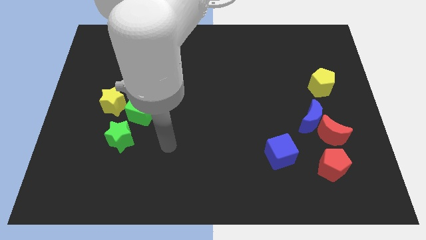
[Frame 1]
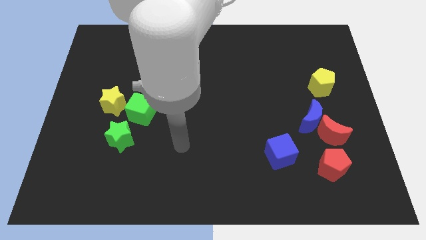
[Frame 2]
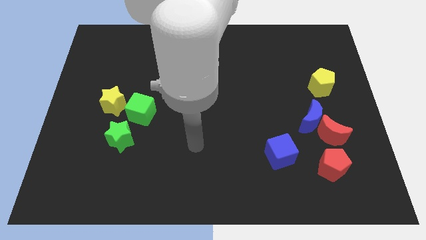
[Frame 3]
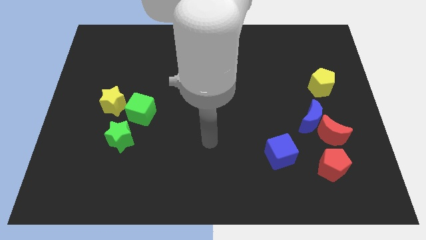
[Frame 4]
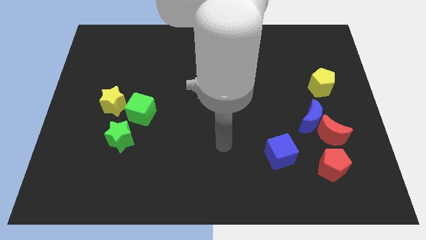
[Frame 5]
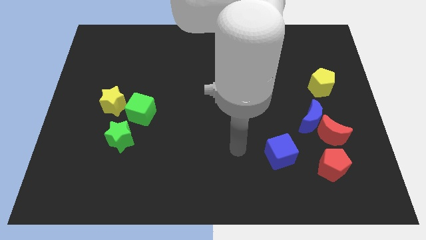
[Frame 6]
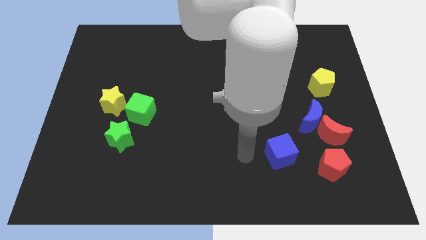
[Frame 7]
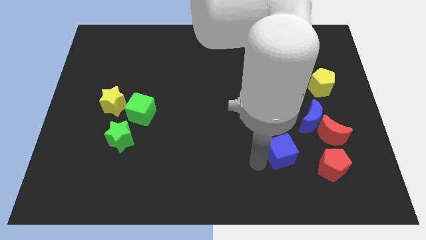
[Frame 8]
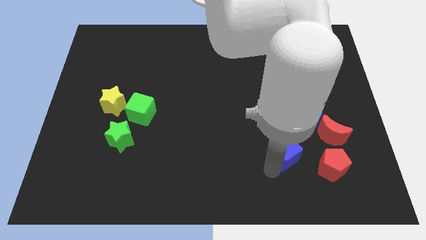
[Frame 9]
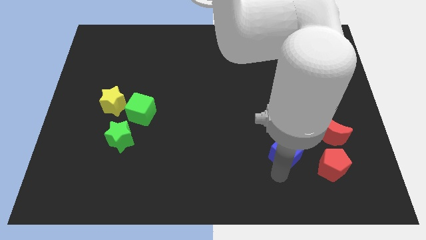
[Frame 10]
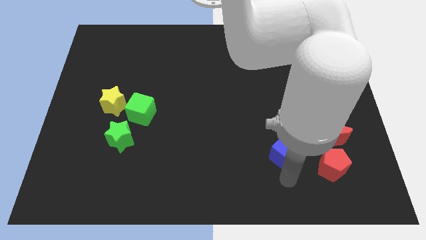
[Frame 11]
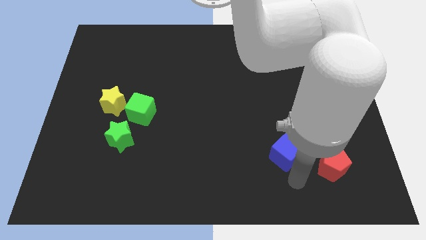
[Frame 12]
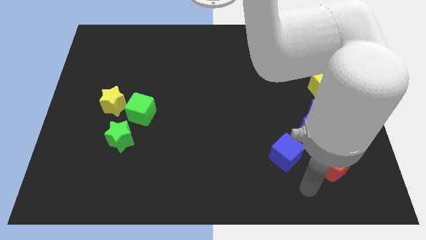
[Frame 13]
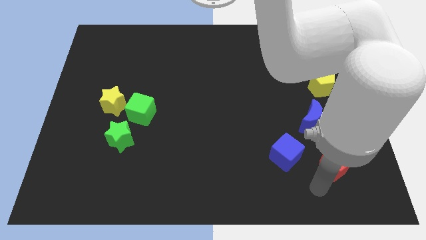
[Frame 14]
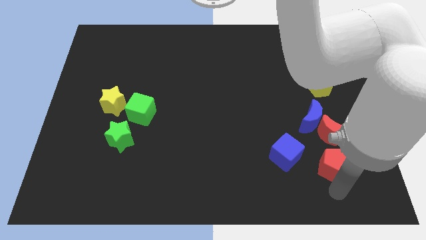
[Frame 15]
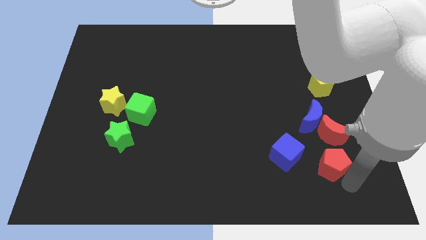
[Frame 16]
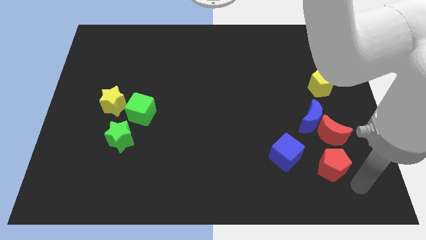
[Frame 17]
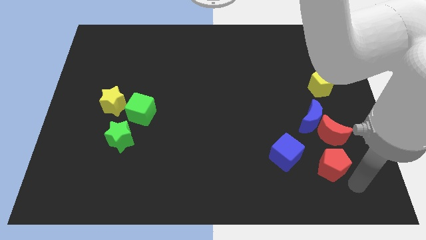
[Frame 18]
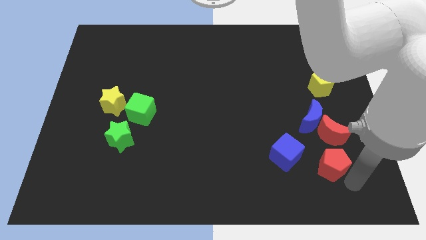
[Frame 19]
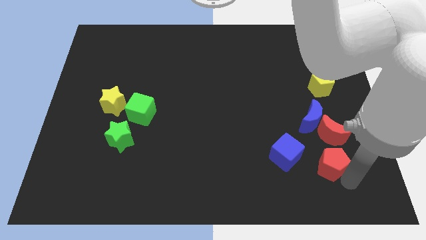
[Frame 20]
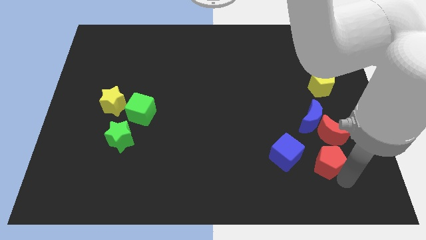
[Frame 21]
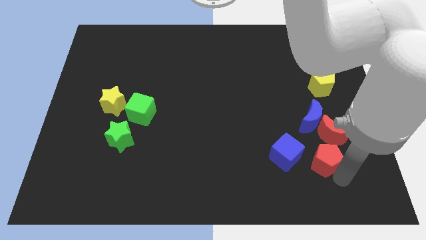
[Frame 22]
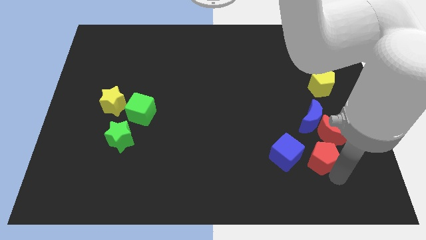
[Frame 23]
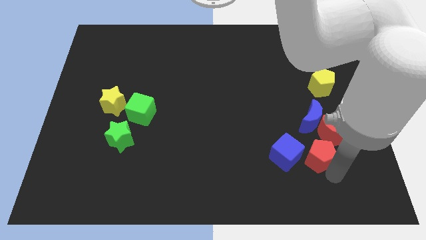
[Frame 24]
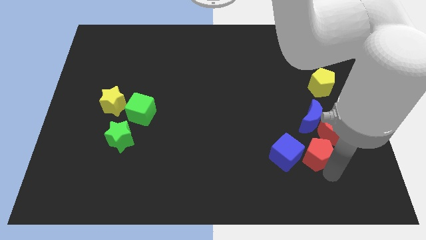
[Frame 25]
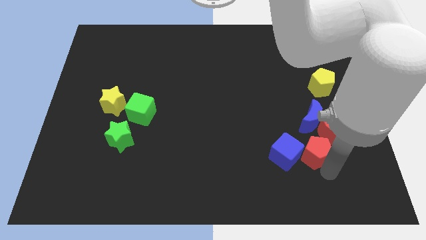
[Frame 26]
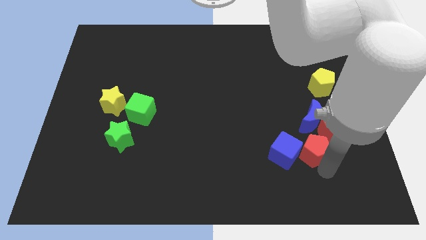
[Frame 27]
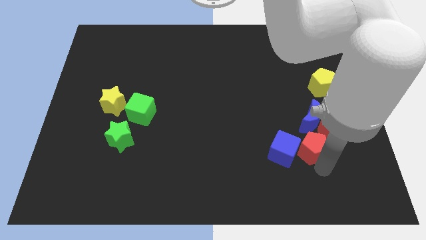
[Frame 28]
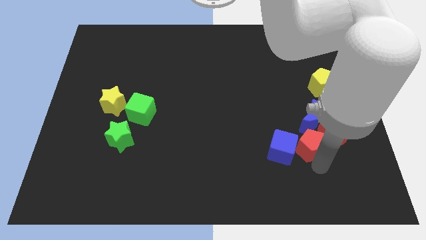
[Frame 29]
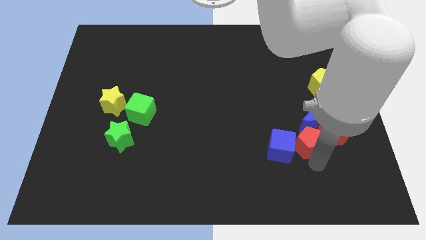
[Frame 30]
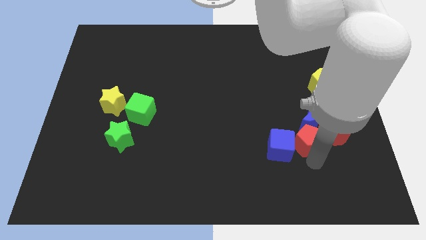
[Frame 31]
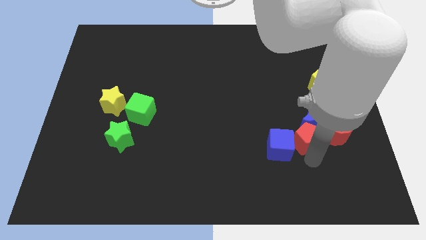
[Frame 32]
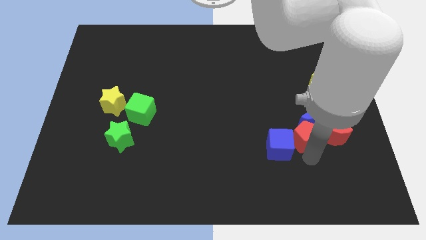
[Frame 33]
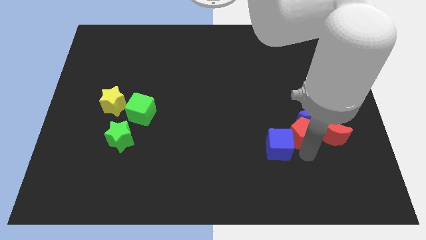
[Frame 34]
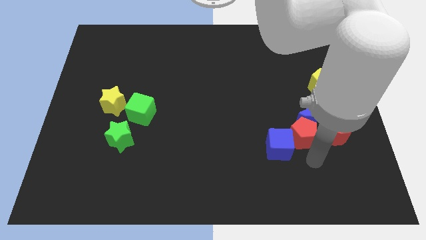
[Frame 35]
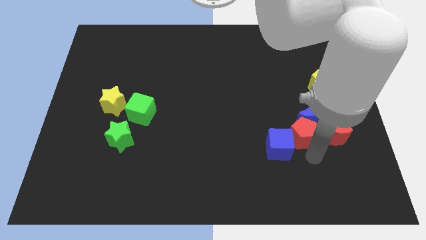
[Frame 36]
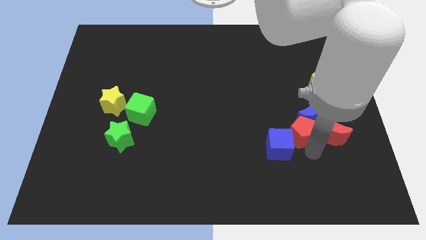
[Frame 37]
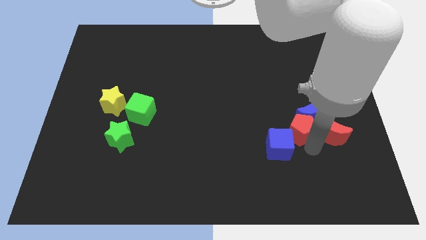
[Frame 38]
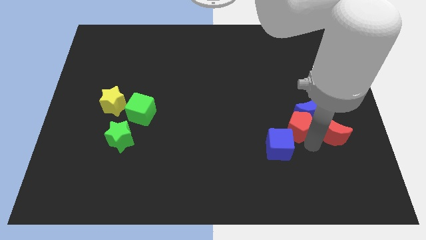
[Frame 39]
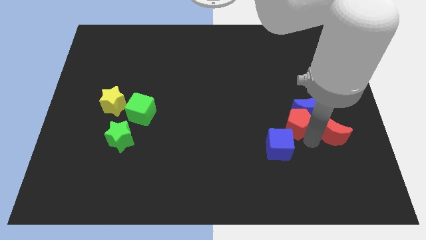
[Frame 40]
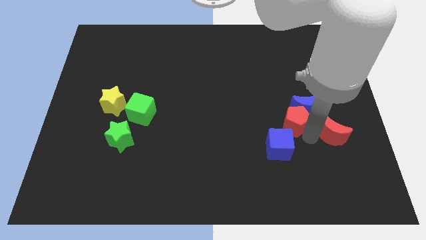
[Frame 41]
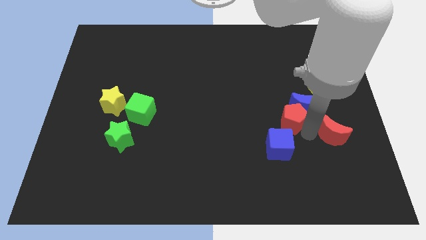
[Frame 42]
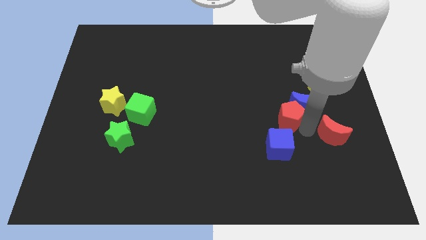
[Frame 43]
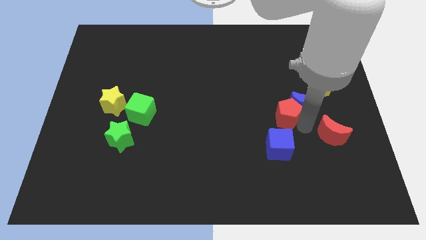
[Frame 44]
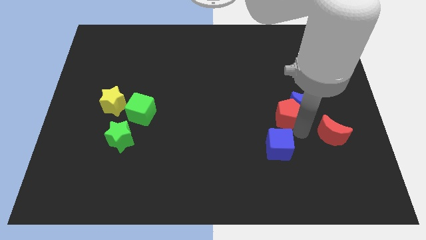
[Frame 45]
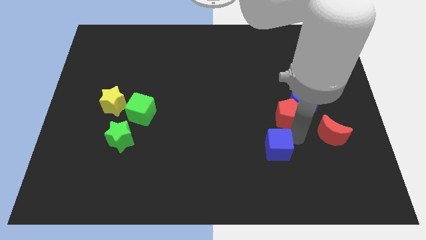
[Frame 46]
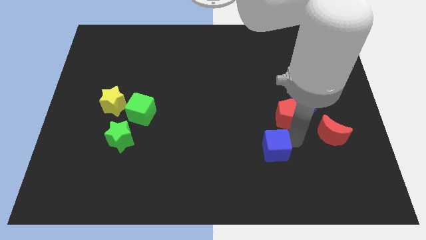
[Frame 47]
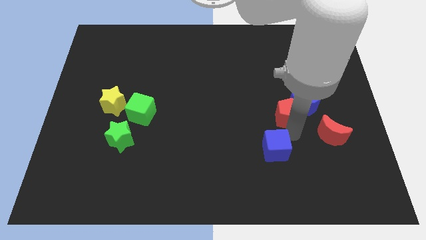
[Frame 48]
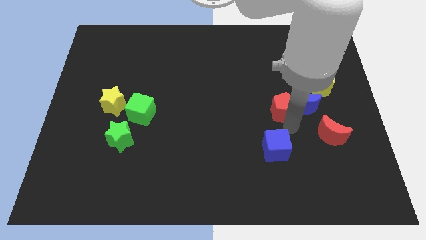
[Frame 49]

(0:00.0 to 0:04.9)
put the red pentagon to the top left side of the blue moon

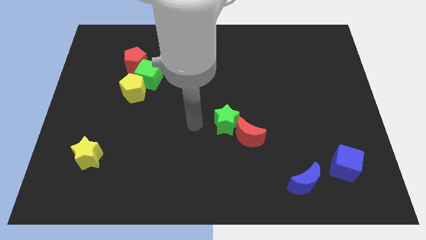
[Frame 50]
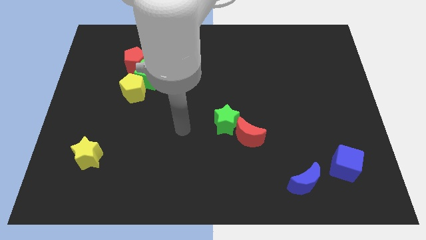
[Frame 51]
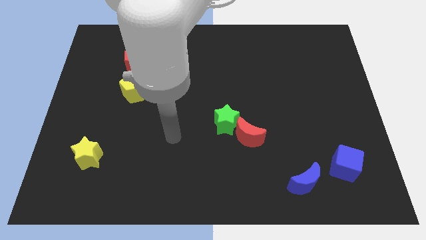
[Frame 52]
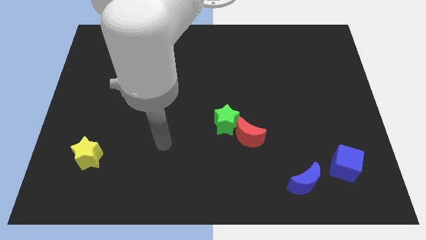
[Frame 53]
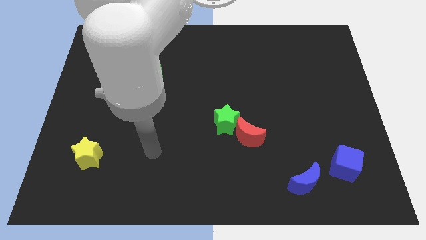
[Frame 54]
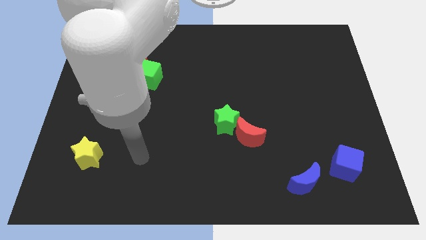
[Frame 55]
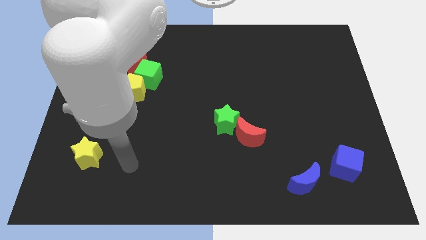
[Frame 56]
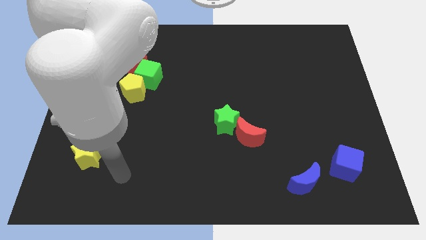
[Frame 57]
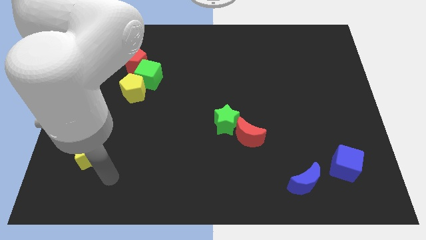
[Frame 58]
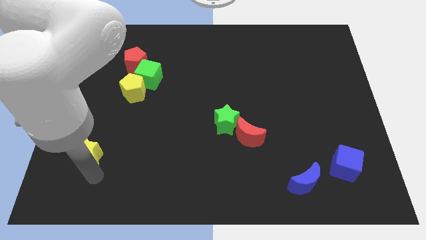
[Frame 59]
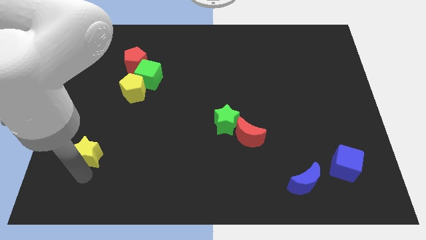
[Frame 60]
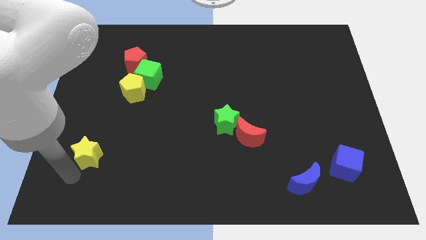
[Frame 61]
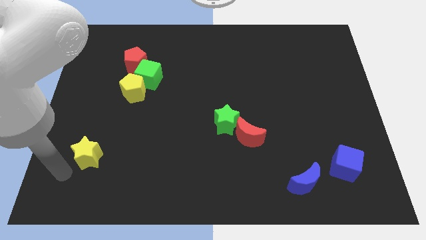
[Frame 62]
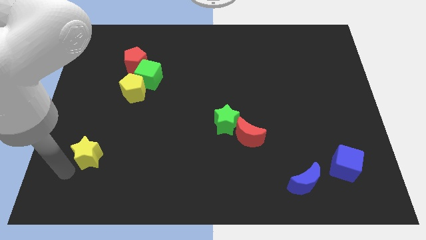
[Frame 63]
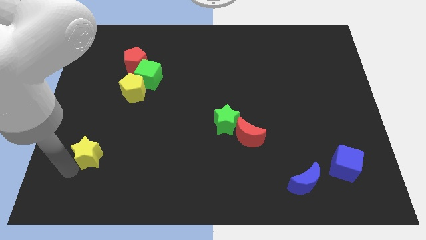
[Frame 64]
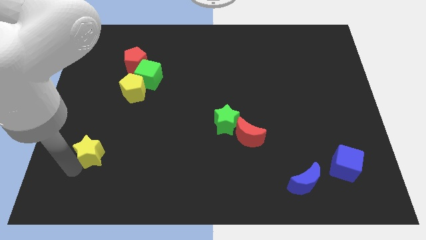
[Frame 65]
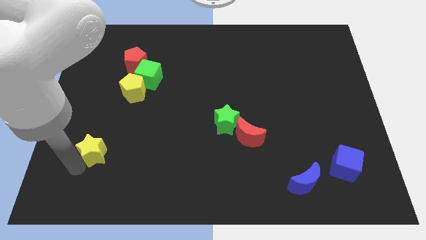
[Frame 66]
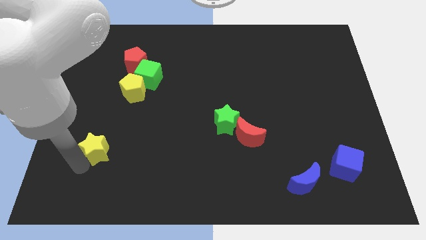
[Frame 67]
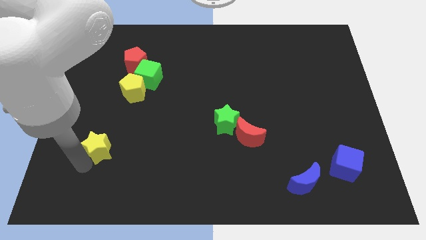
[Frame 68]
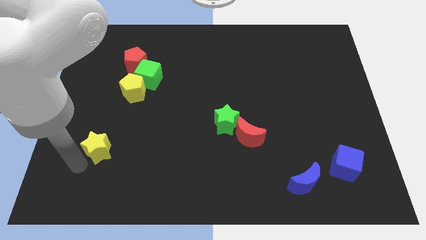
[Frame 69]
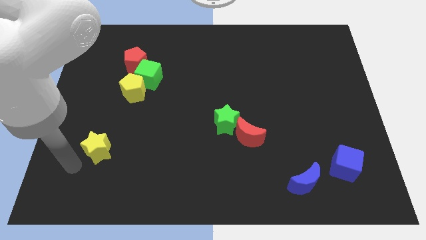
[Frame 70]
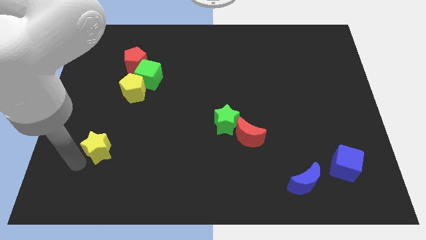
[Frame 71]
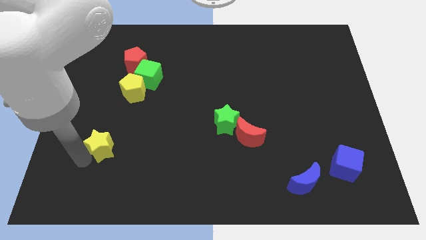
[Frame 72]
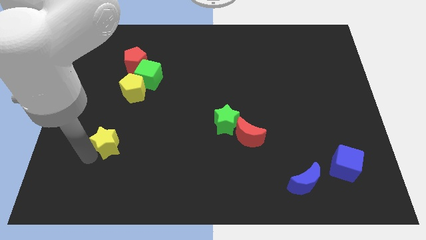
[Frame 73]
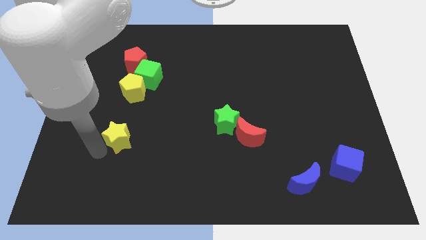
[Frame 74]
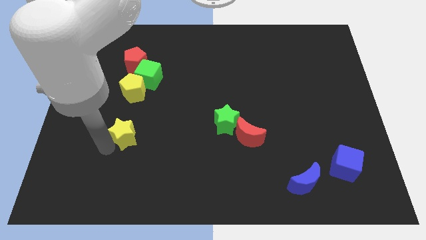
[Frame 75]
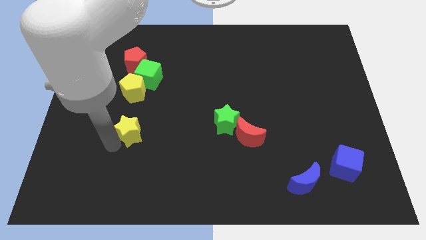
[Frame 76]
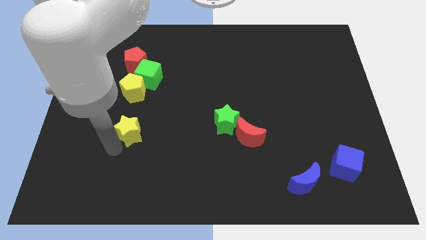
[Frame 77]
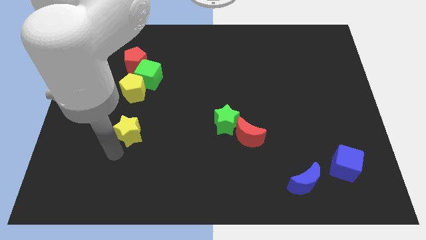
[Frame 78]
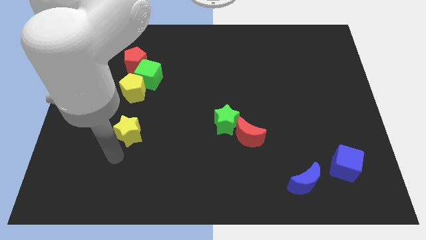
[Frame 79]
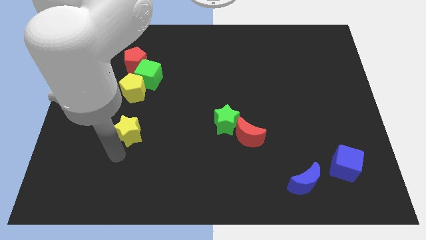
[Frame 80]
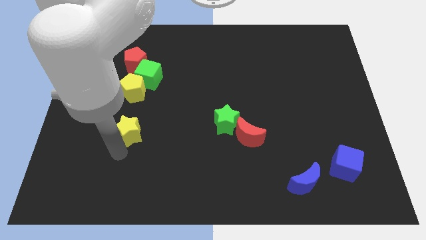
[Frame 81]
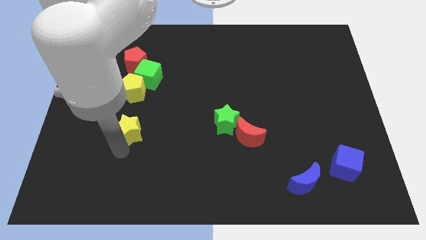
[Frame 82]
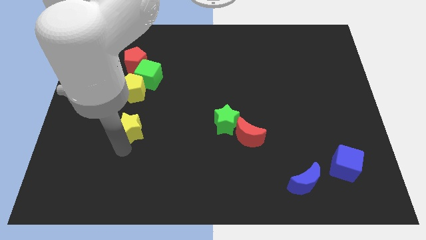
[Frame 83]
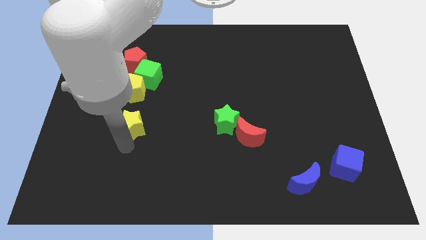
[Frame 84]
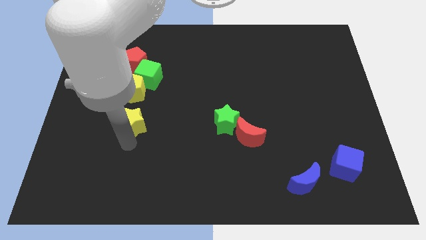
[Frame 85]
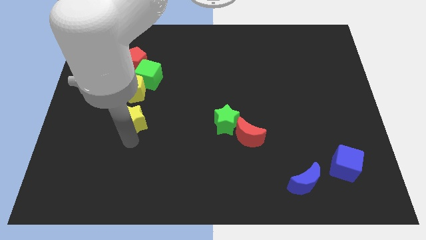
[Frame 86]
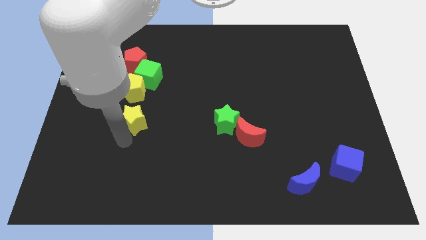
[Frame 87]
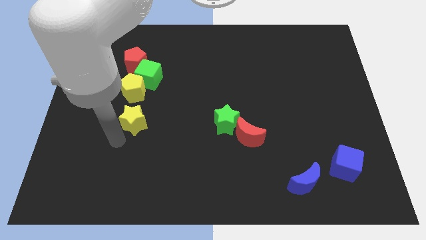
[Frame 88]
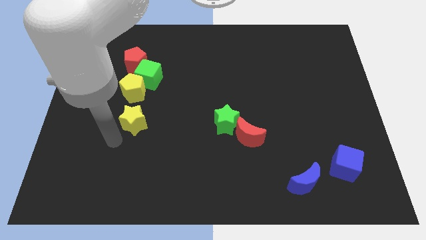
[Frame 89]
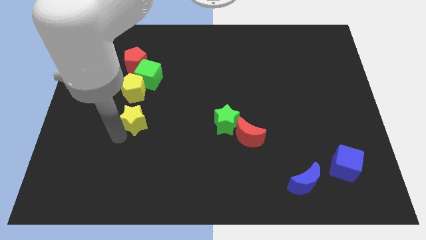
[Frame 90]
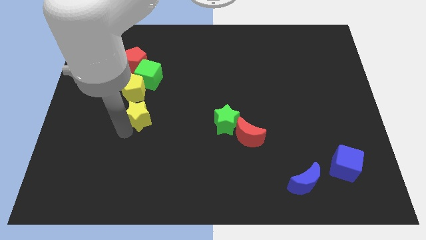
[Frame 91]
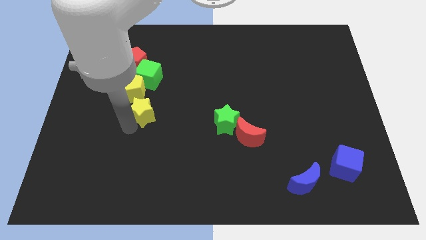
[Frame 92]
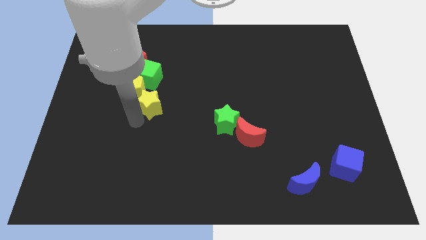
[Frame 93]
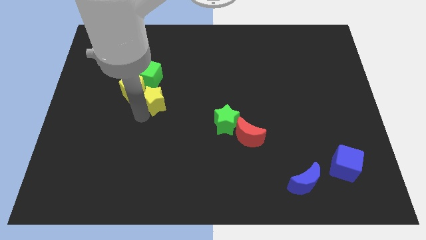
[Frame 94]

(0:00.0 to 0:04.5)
slide the yellow star diagonally down and to the right of the green cube
